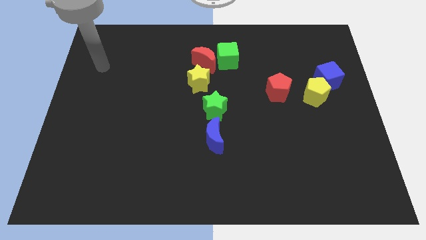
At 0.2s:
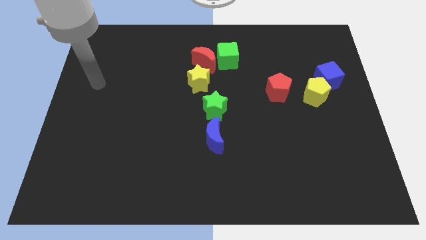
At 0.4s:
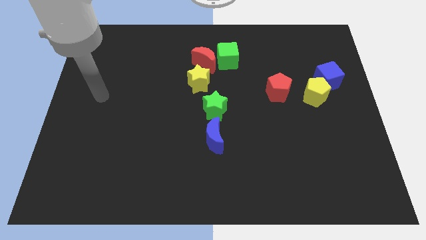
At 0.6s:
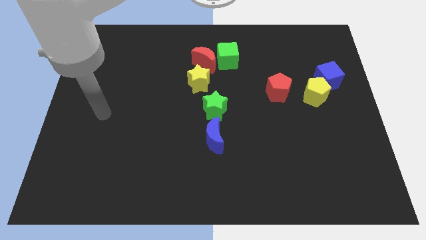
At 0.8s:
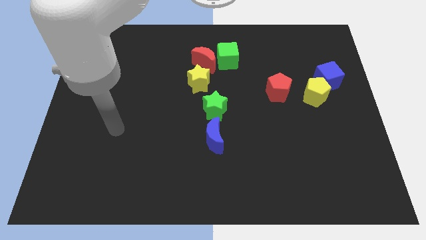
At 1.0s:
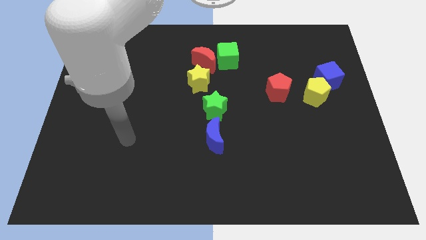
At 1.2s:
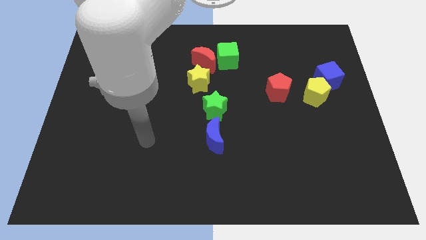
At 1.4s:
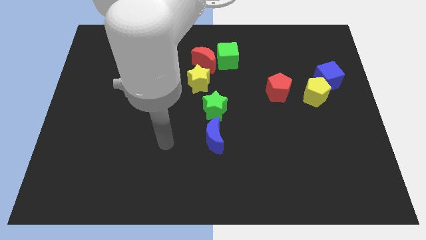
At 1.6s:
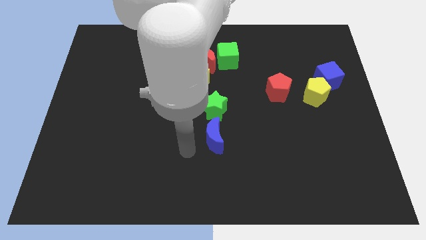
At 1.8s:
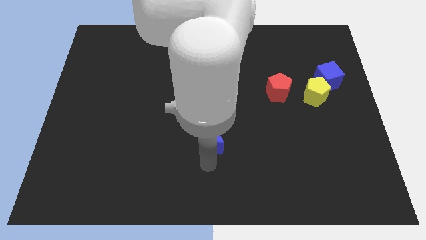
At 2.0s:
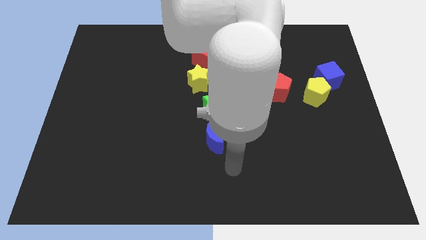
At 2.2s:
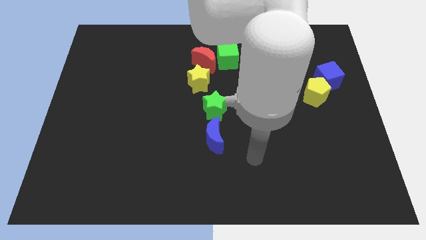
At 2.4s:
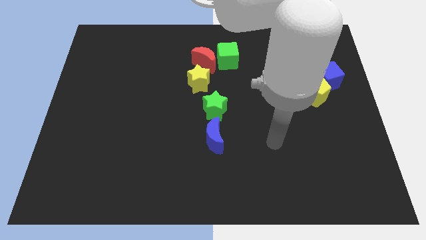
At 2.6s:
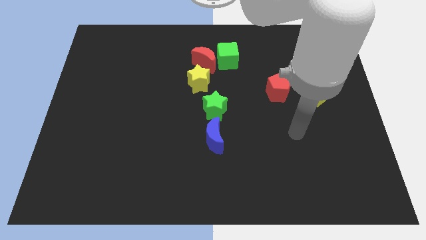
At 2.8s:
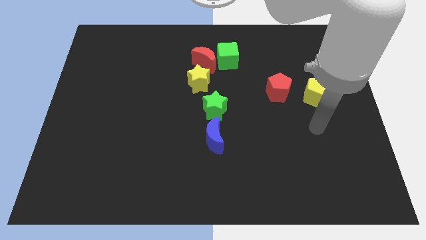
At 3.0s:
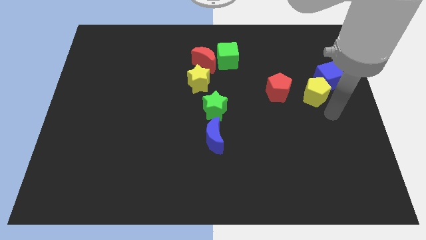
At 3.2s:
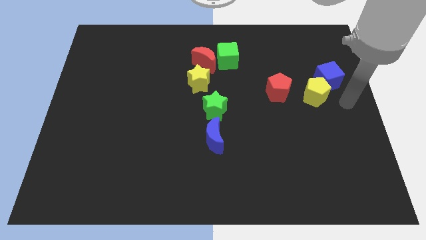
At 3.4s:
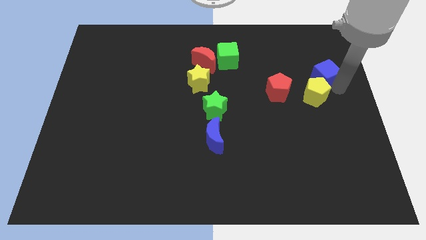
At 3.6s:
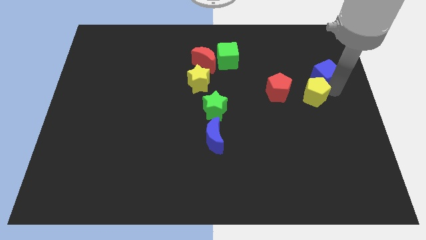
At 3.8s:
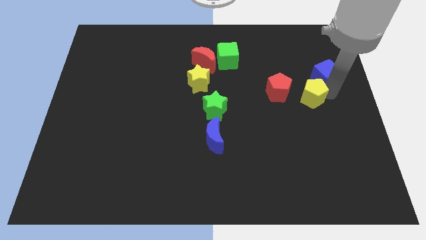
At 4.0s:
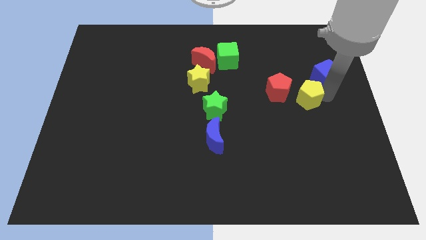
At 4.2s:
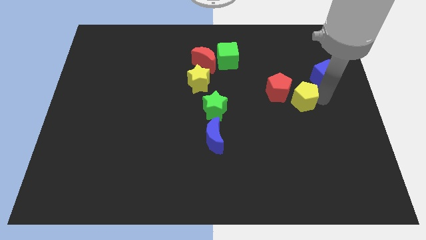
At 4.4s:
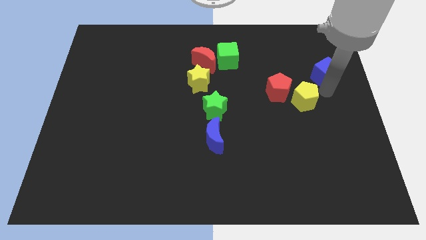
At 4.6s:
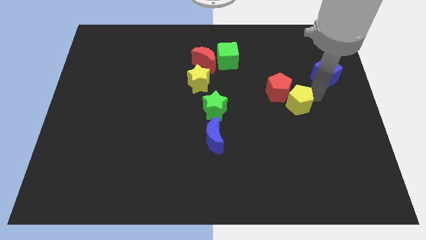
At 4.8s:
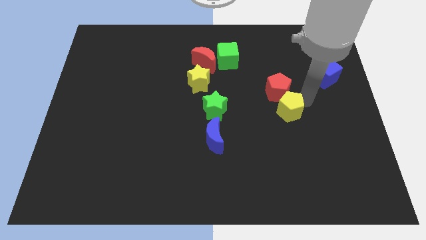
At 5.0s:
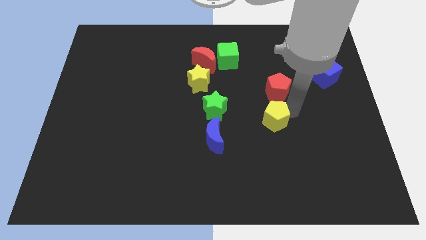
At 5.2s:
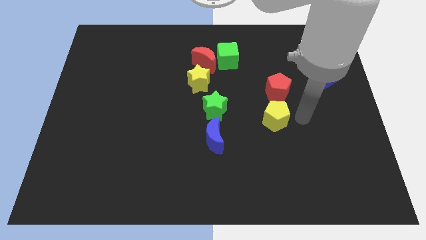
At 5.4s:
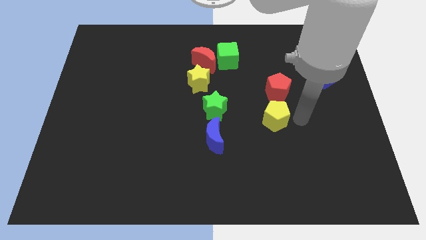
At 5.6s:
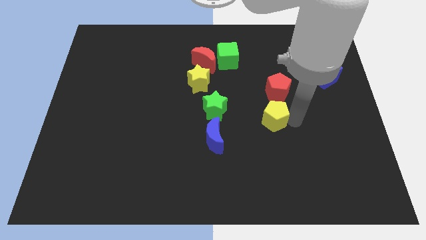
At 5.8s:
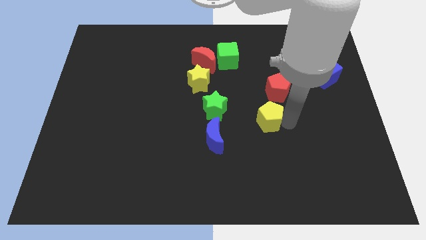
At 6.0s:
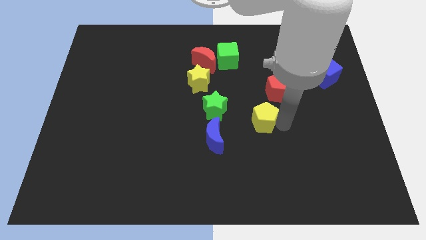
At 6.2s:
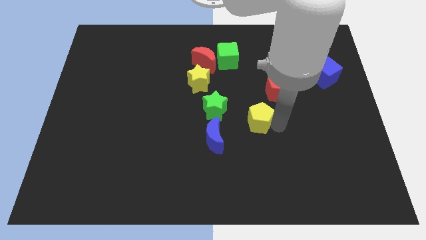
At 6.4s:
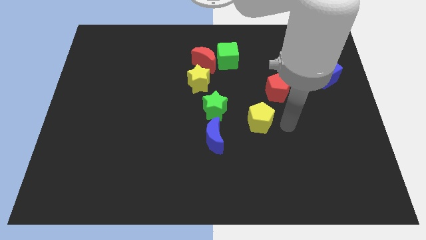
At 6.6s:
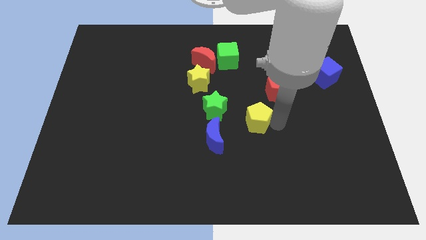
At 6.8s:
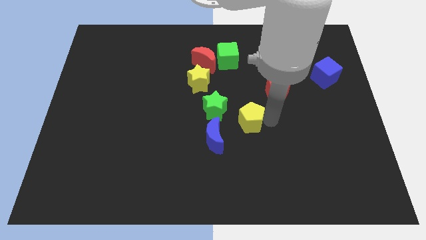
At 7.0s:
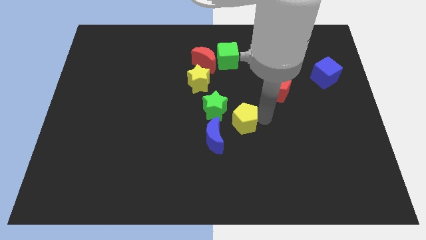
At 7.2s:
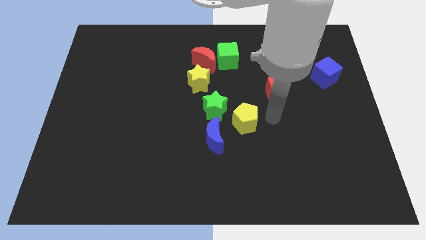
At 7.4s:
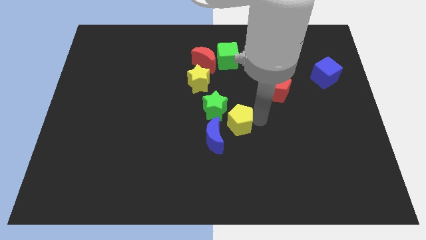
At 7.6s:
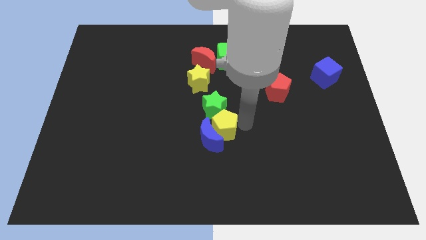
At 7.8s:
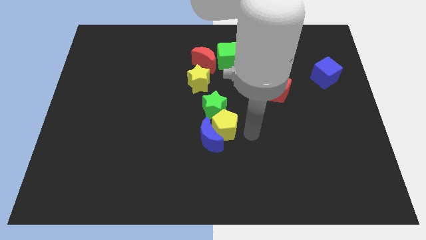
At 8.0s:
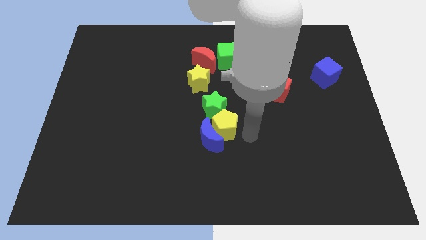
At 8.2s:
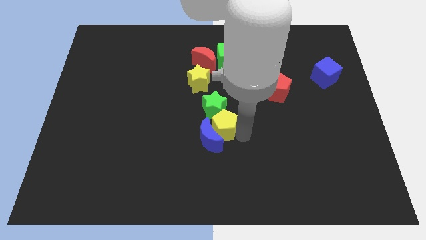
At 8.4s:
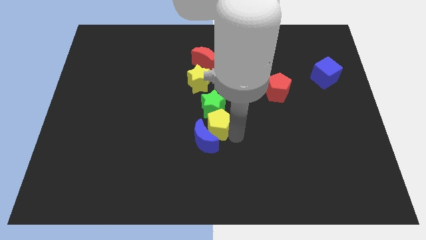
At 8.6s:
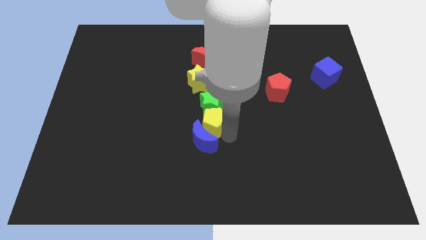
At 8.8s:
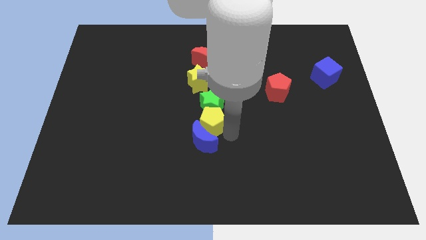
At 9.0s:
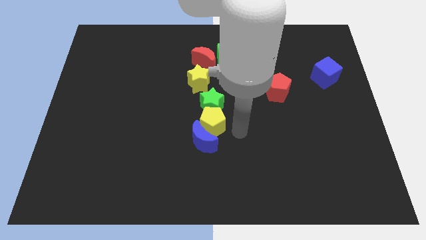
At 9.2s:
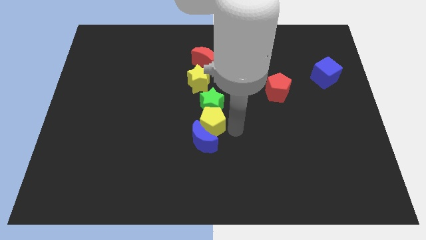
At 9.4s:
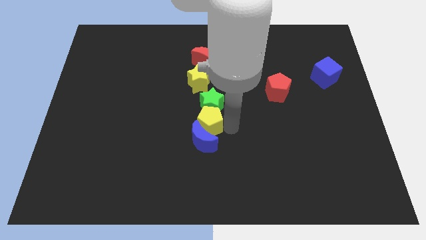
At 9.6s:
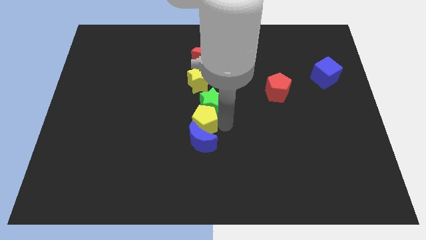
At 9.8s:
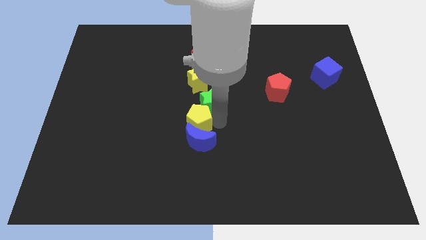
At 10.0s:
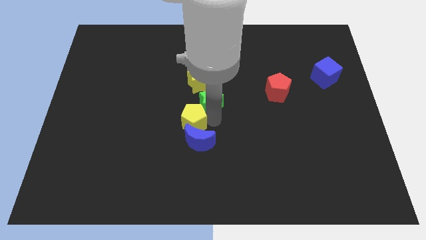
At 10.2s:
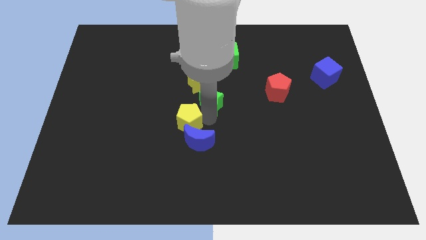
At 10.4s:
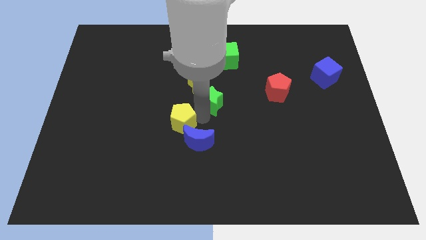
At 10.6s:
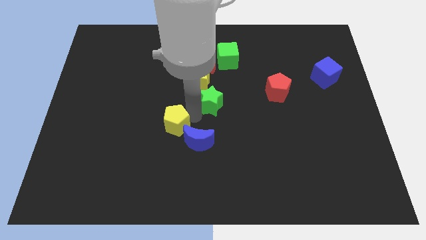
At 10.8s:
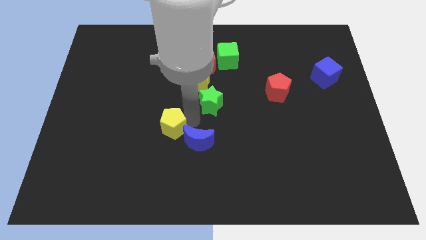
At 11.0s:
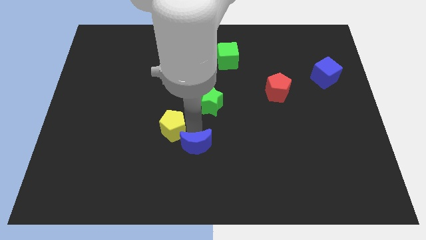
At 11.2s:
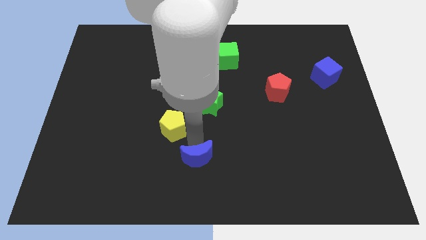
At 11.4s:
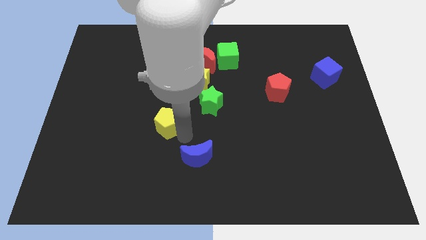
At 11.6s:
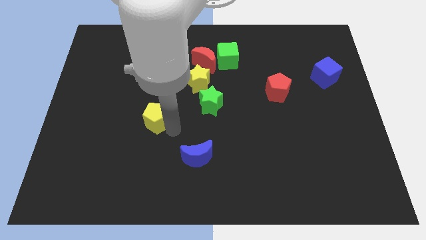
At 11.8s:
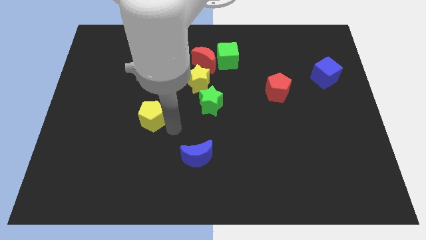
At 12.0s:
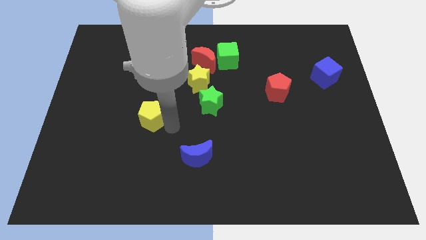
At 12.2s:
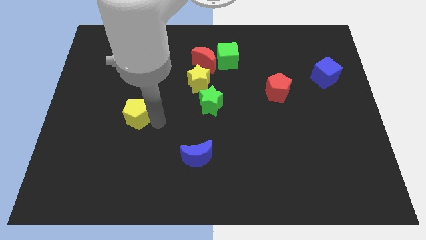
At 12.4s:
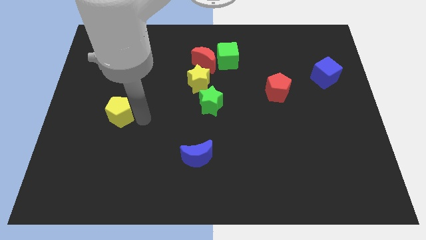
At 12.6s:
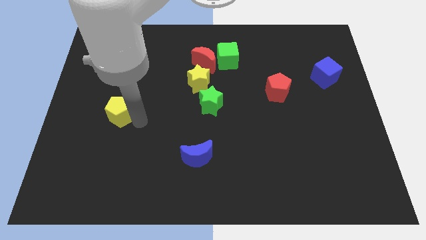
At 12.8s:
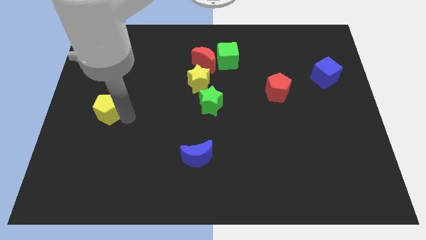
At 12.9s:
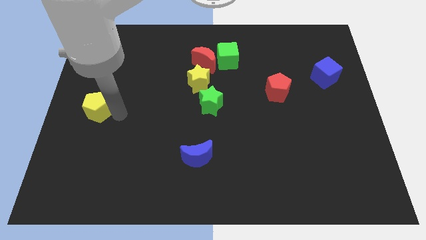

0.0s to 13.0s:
push the yellow pentagon to the left side of the board
